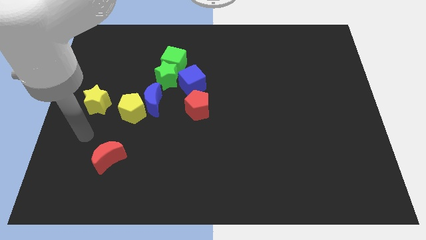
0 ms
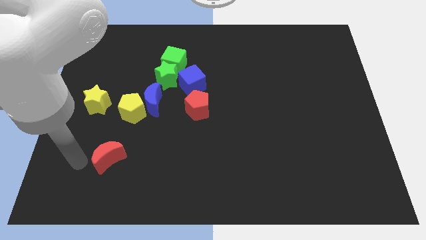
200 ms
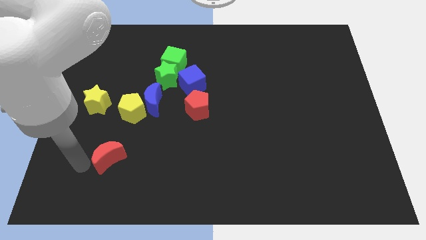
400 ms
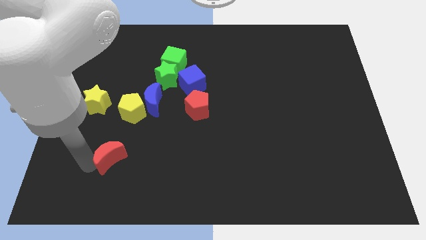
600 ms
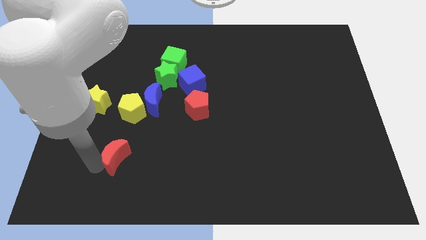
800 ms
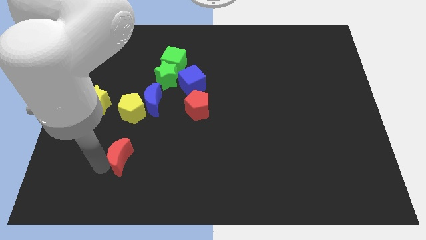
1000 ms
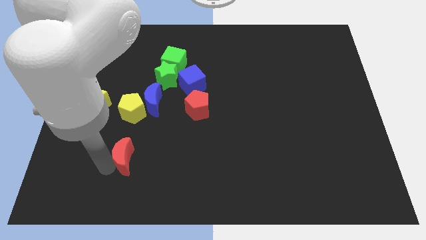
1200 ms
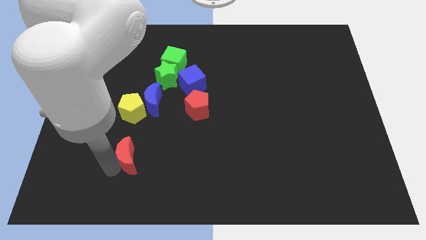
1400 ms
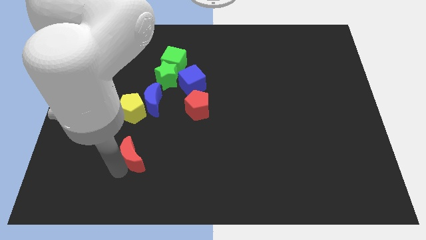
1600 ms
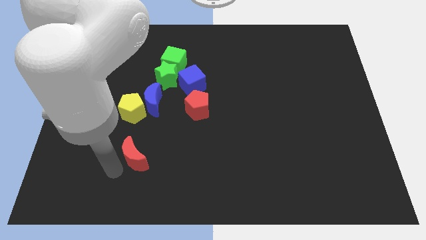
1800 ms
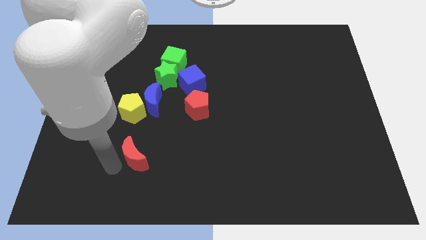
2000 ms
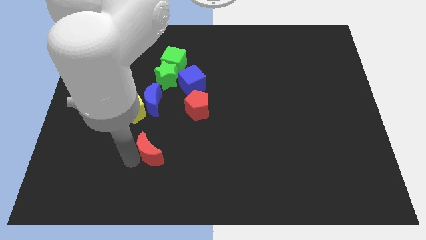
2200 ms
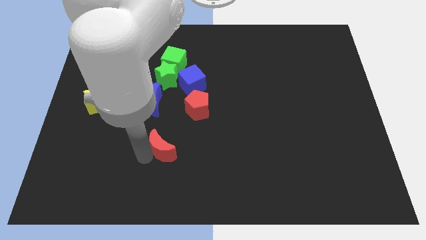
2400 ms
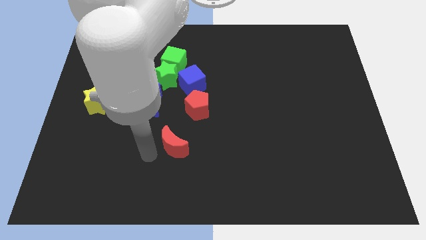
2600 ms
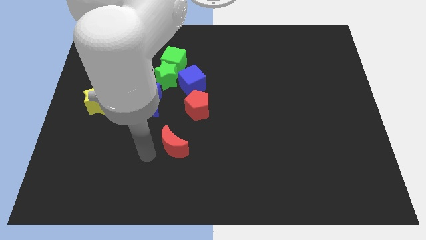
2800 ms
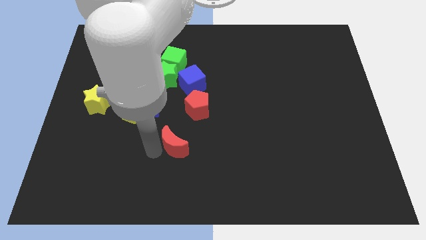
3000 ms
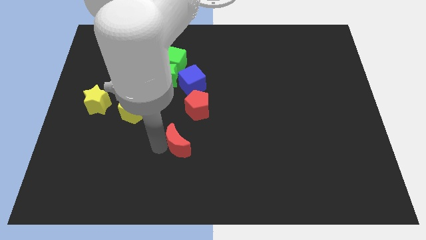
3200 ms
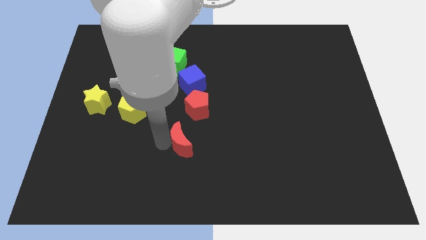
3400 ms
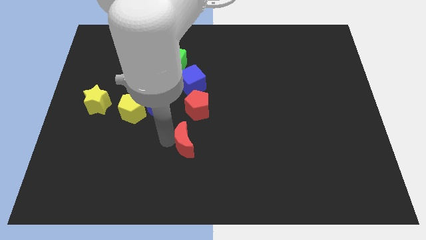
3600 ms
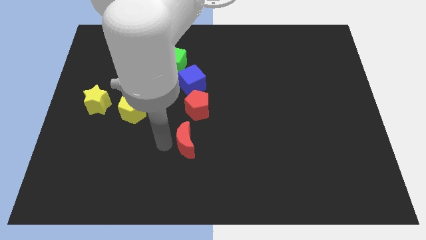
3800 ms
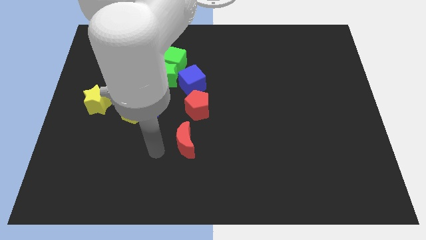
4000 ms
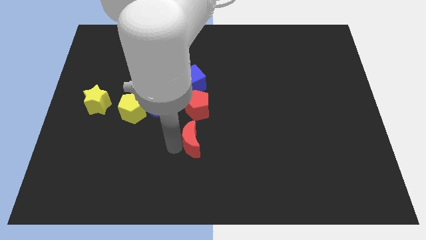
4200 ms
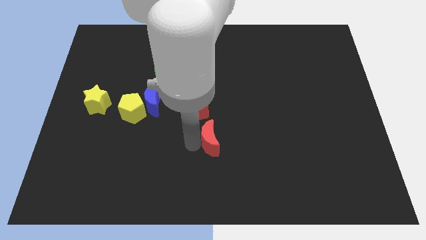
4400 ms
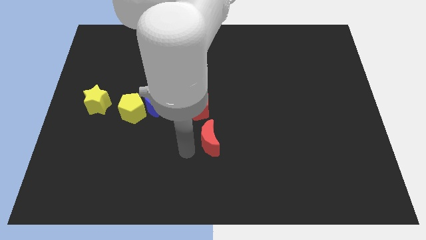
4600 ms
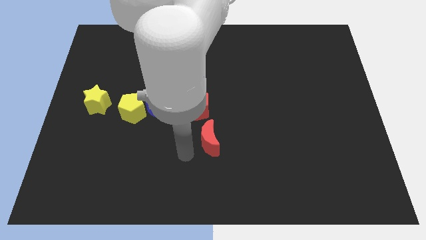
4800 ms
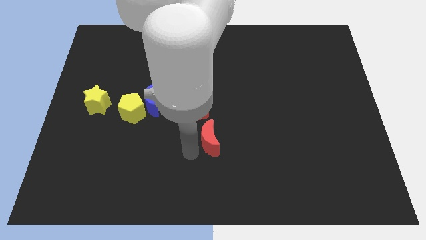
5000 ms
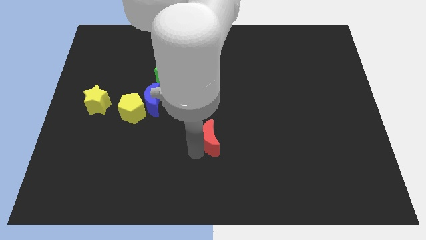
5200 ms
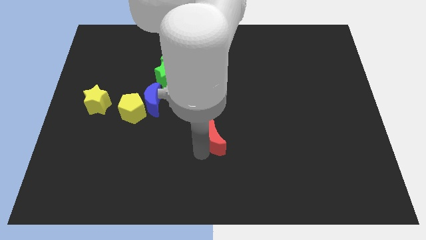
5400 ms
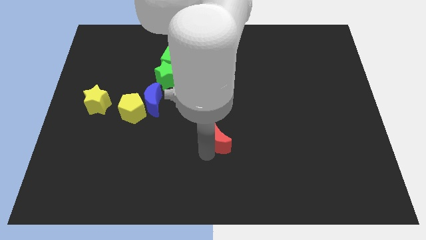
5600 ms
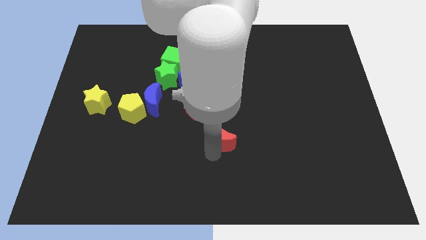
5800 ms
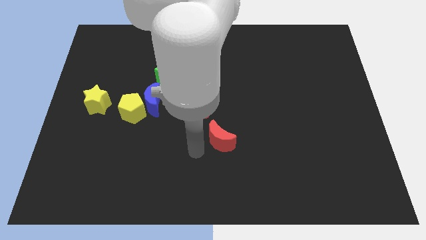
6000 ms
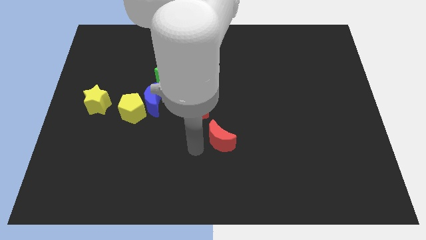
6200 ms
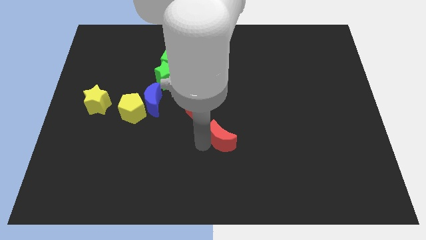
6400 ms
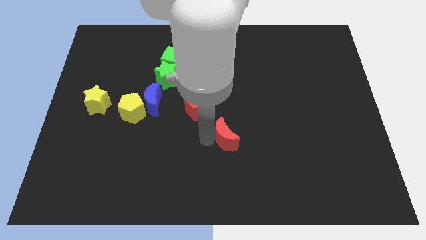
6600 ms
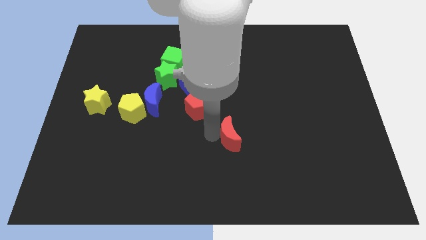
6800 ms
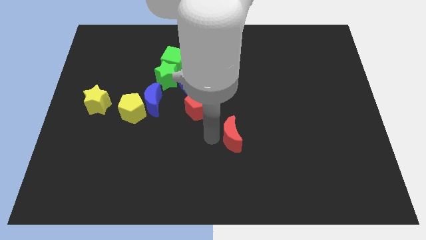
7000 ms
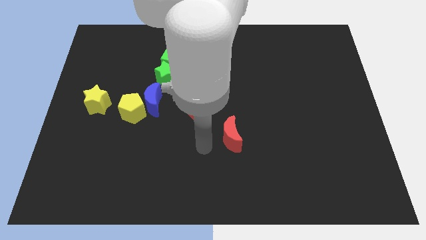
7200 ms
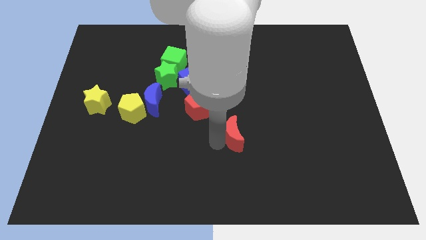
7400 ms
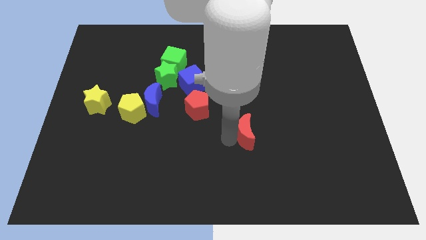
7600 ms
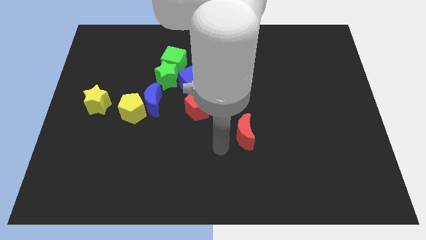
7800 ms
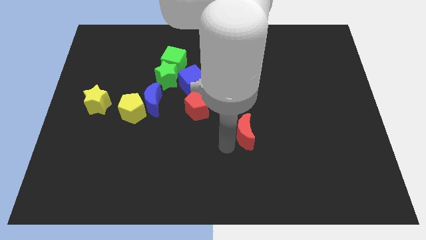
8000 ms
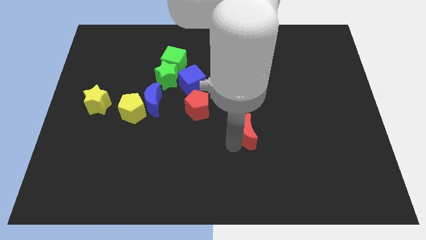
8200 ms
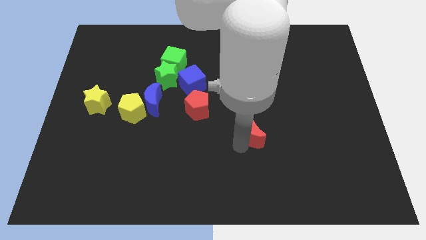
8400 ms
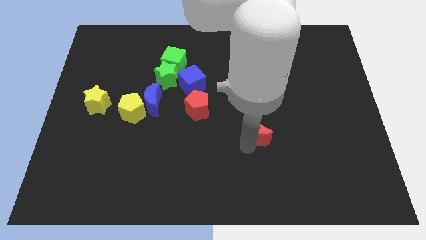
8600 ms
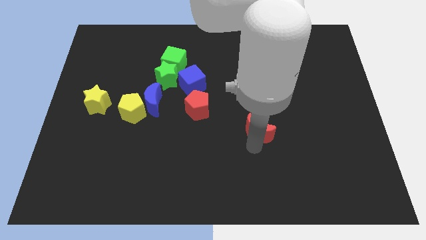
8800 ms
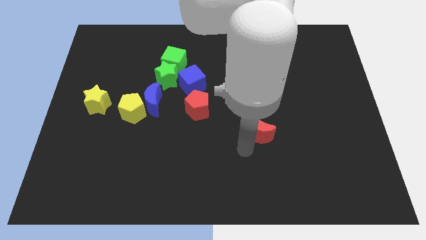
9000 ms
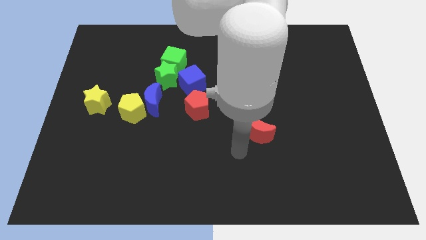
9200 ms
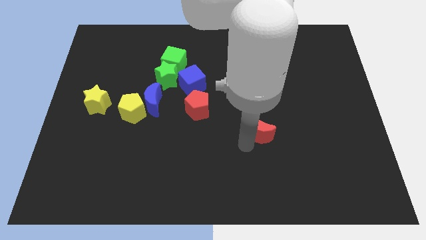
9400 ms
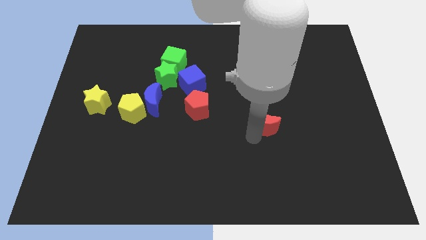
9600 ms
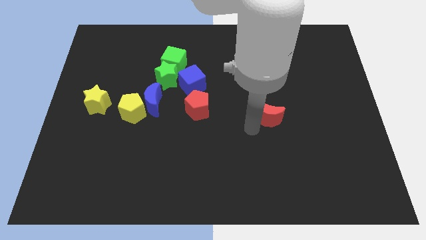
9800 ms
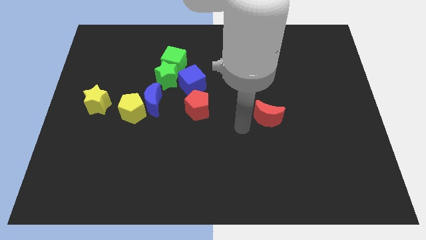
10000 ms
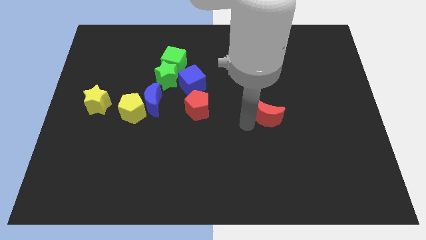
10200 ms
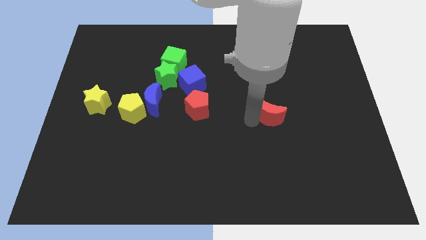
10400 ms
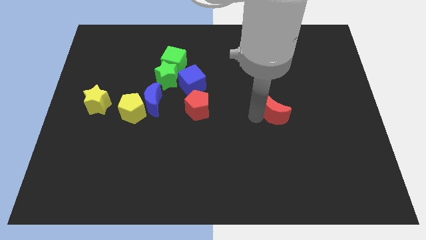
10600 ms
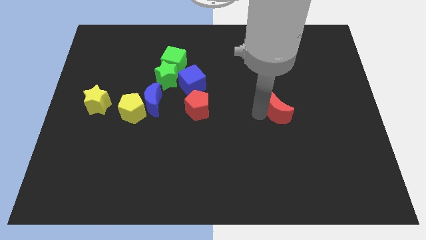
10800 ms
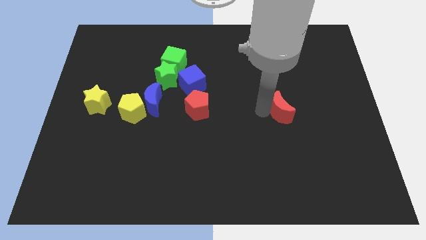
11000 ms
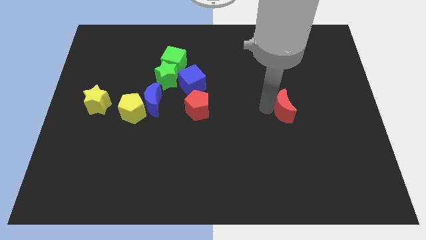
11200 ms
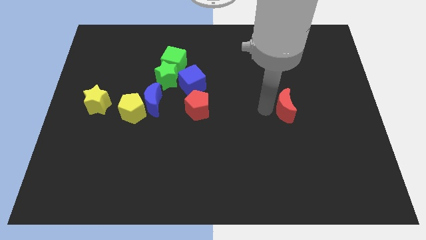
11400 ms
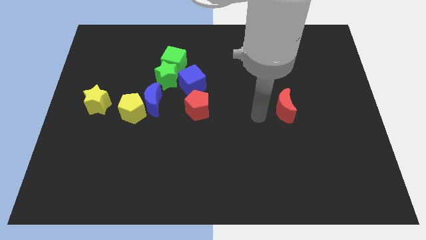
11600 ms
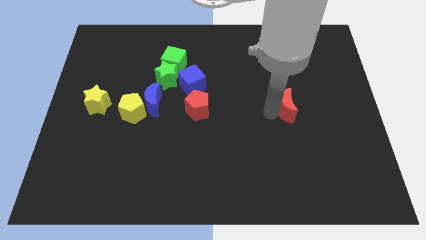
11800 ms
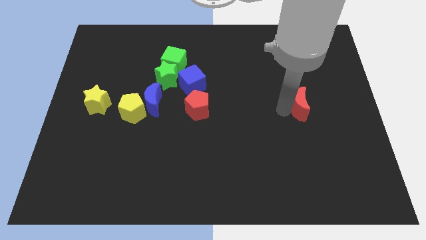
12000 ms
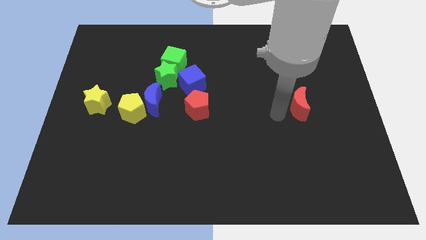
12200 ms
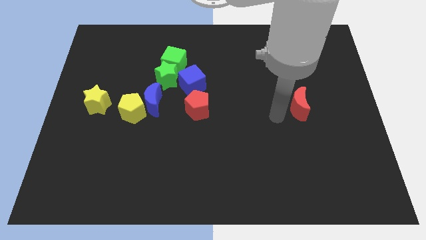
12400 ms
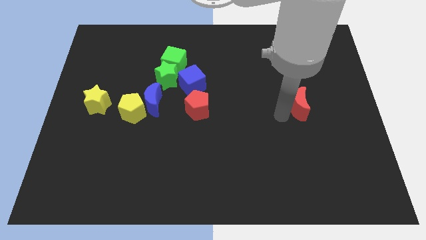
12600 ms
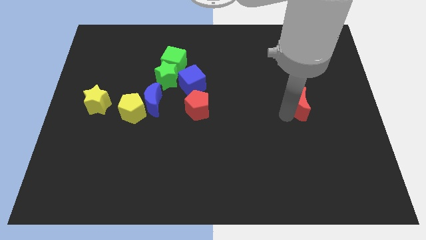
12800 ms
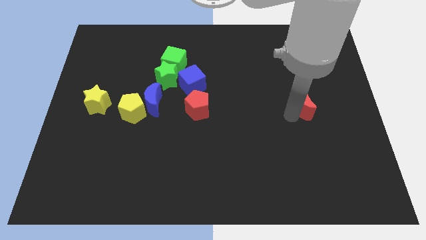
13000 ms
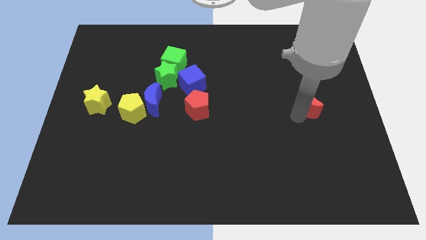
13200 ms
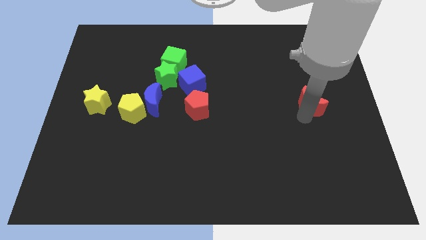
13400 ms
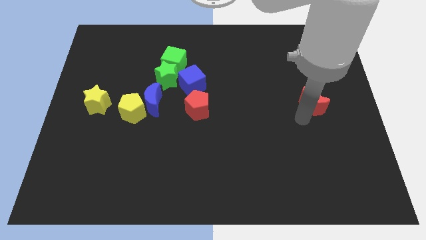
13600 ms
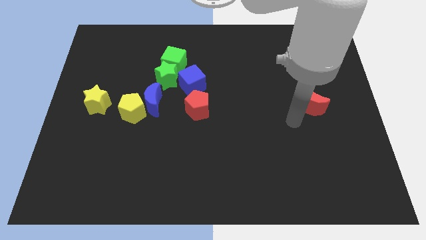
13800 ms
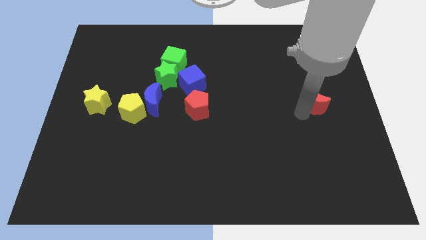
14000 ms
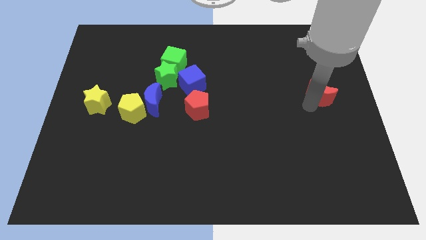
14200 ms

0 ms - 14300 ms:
slide the red moon to the right side of the board
